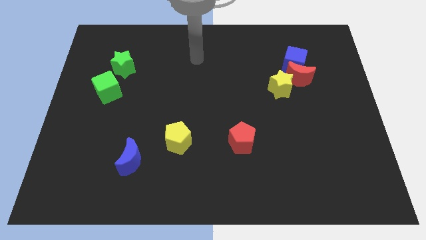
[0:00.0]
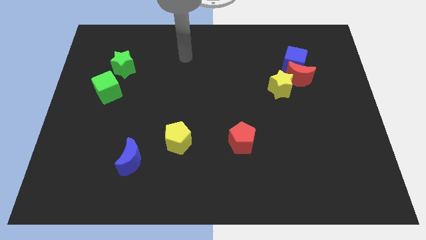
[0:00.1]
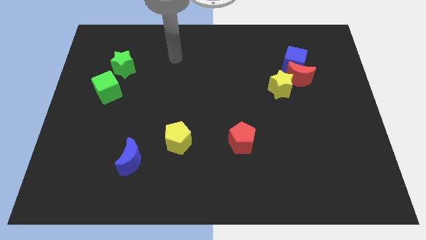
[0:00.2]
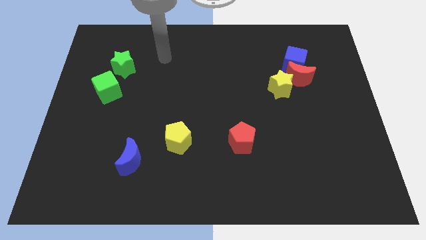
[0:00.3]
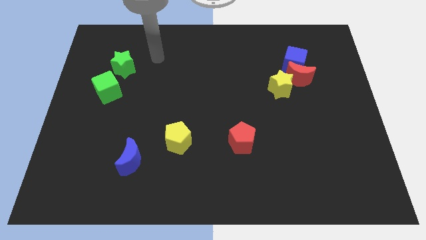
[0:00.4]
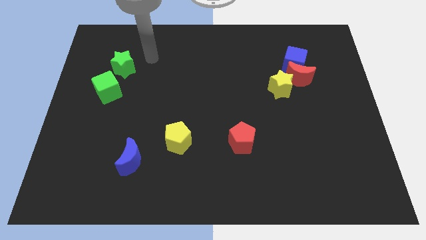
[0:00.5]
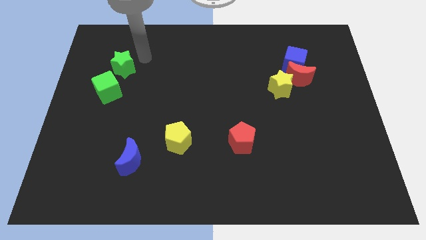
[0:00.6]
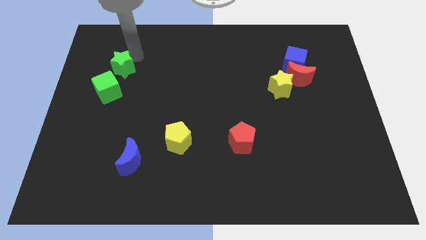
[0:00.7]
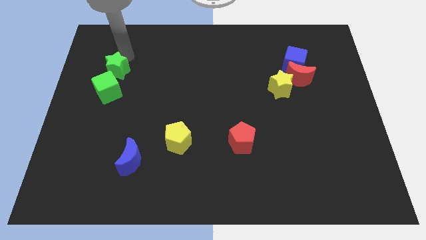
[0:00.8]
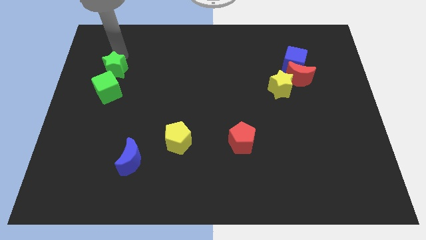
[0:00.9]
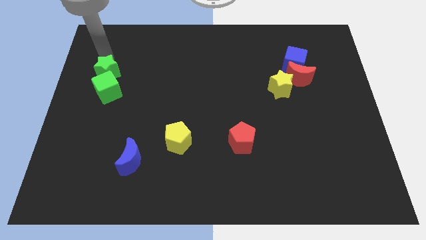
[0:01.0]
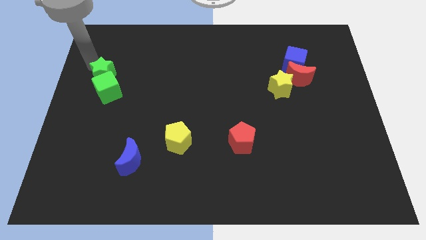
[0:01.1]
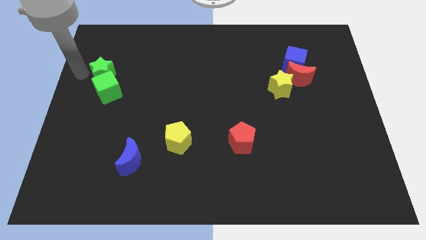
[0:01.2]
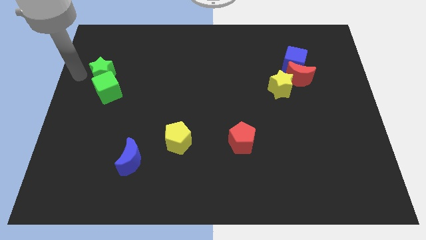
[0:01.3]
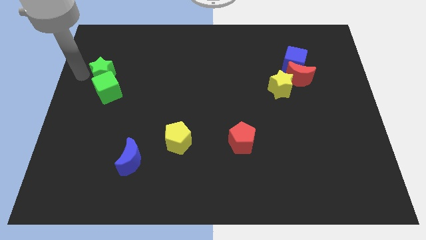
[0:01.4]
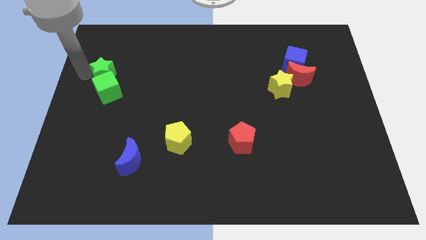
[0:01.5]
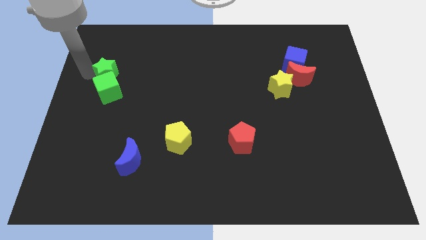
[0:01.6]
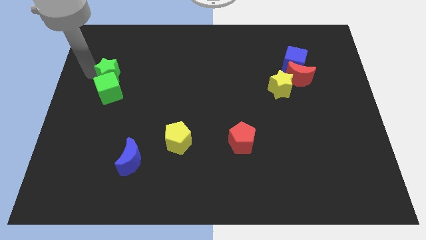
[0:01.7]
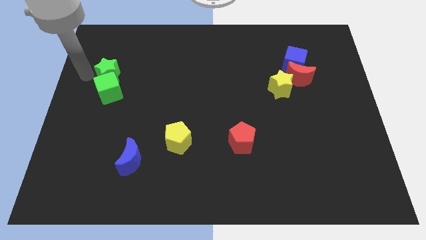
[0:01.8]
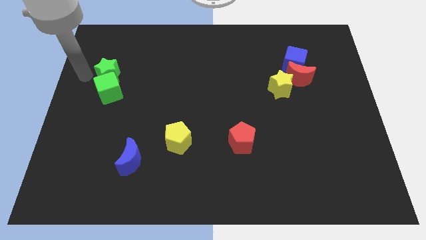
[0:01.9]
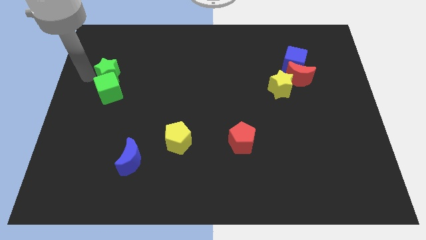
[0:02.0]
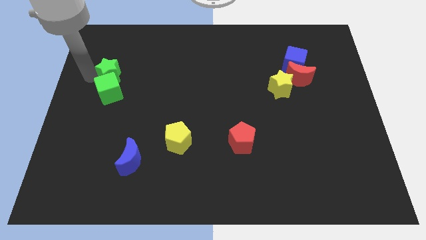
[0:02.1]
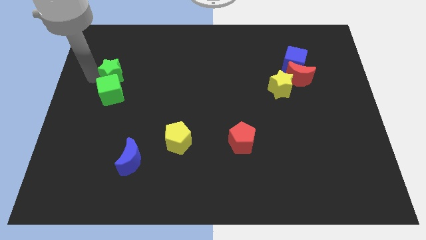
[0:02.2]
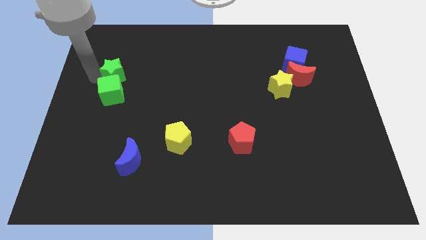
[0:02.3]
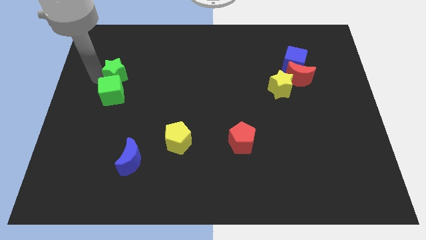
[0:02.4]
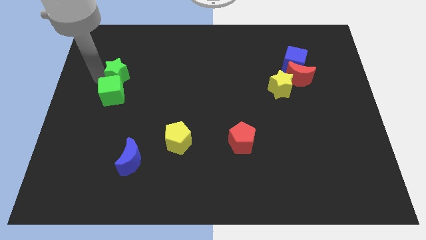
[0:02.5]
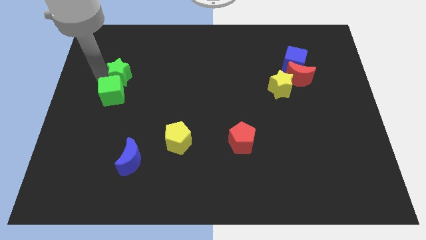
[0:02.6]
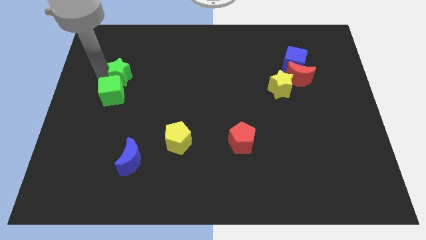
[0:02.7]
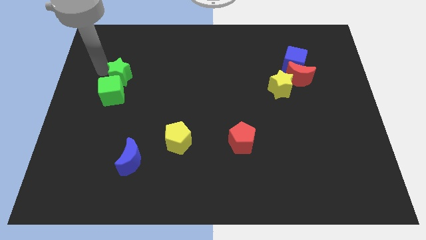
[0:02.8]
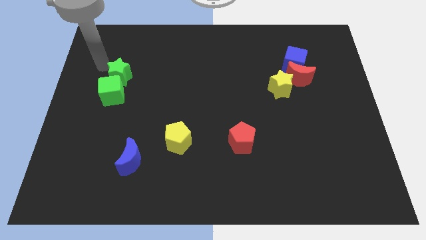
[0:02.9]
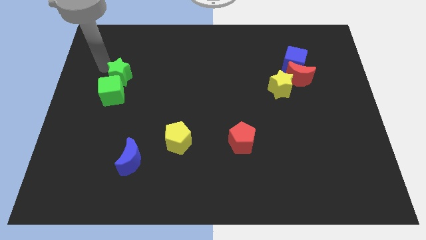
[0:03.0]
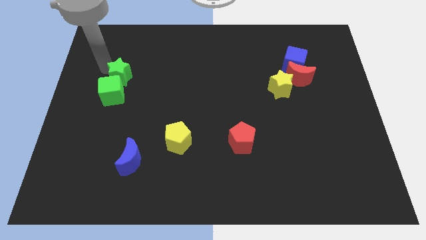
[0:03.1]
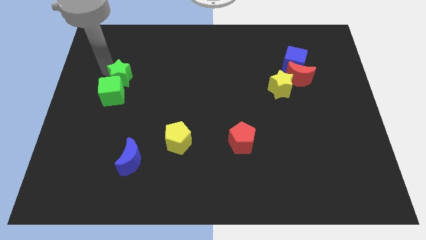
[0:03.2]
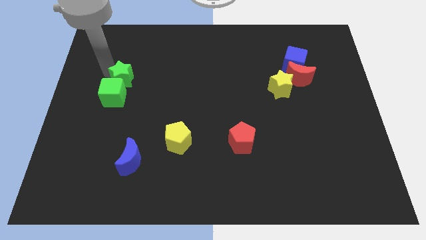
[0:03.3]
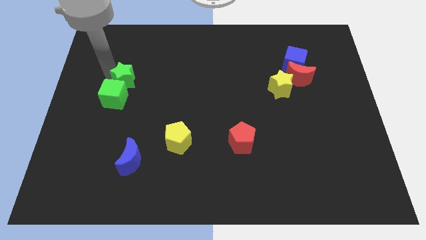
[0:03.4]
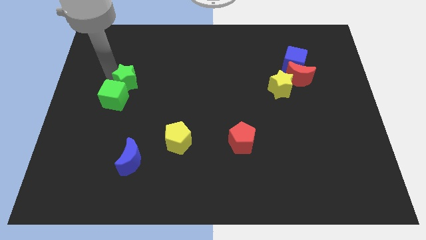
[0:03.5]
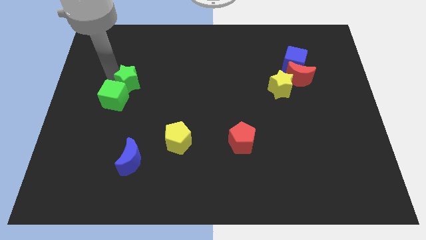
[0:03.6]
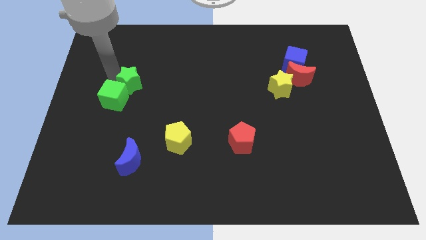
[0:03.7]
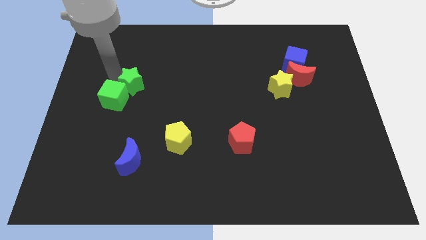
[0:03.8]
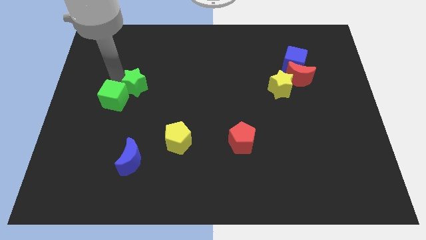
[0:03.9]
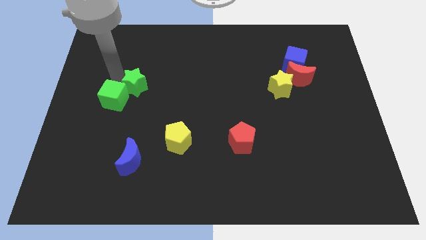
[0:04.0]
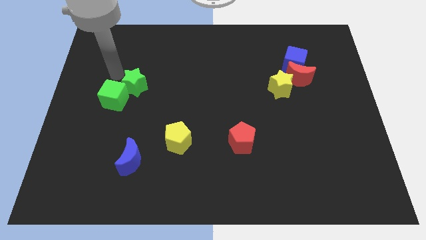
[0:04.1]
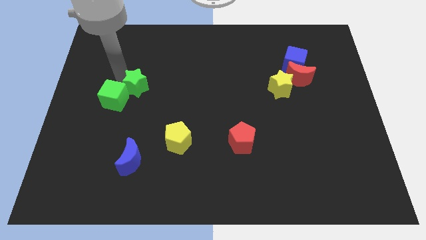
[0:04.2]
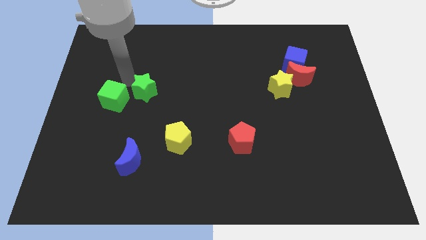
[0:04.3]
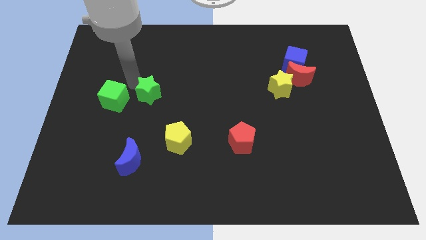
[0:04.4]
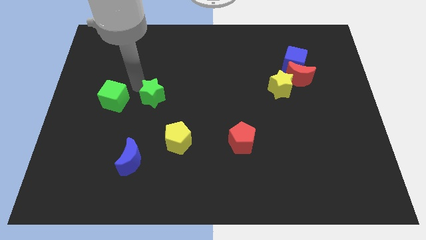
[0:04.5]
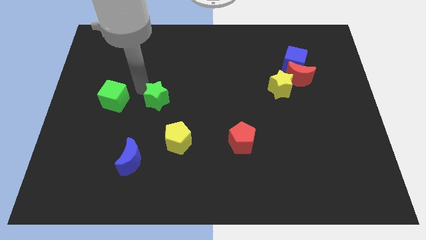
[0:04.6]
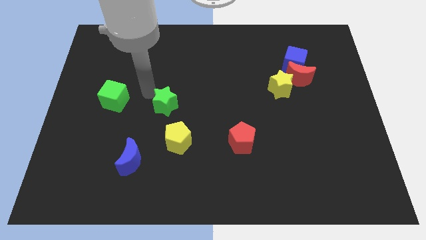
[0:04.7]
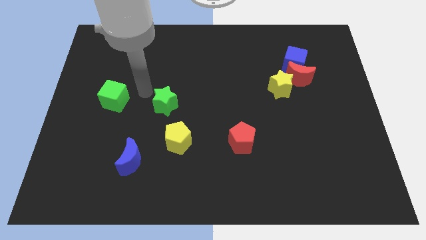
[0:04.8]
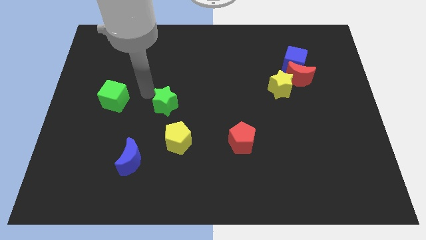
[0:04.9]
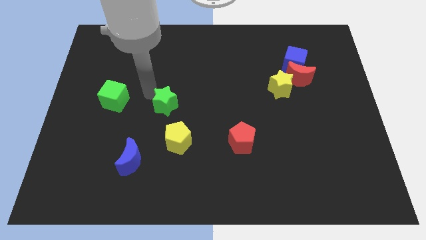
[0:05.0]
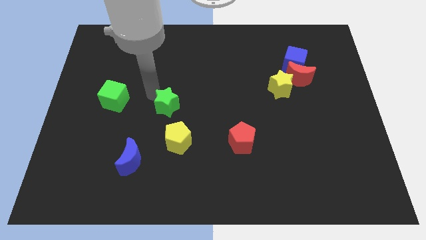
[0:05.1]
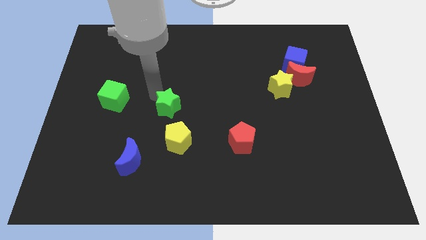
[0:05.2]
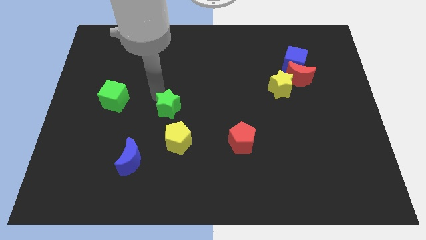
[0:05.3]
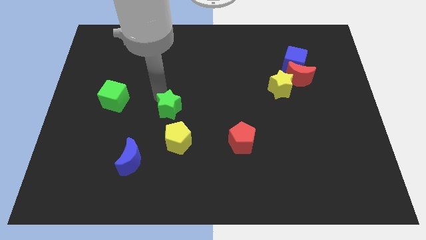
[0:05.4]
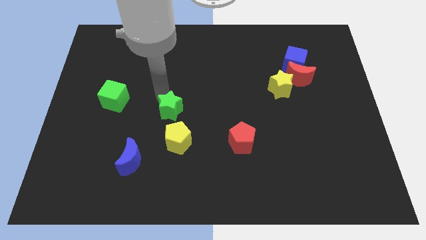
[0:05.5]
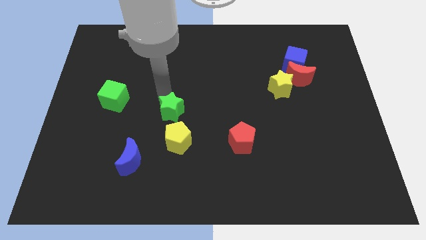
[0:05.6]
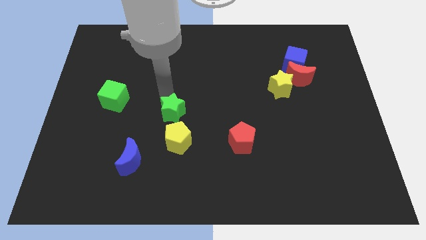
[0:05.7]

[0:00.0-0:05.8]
push the green star diagonally down and right

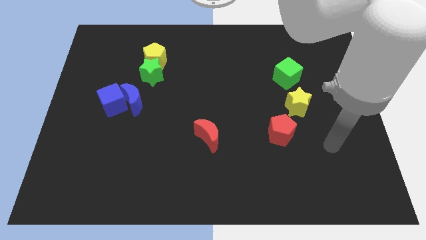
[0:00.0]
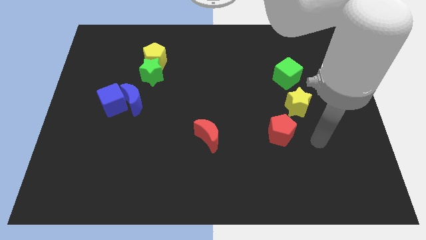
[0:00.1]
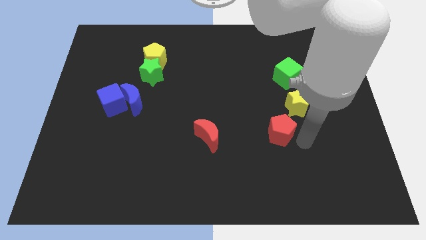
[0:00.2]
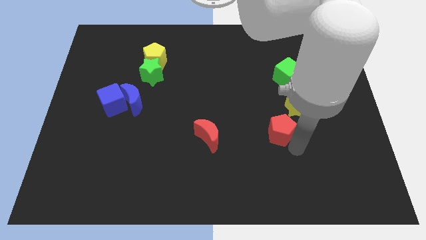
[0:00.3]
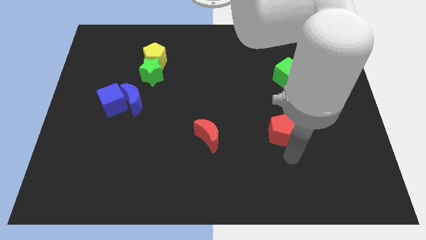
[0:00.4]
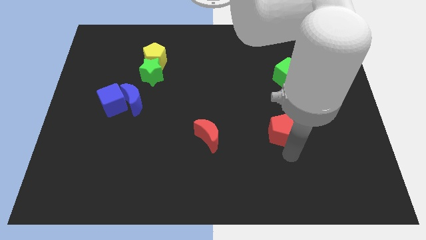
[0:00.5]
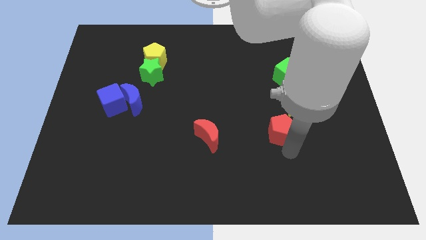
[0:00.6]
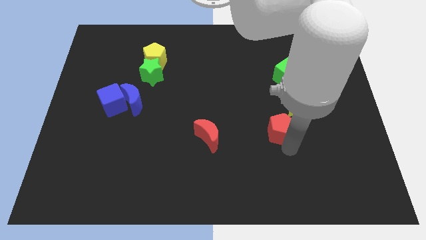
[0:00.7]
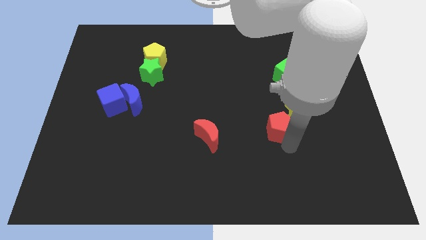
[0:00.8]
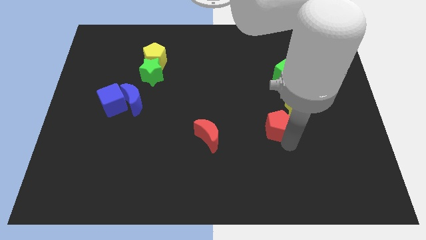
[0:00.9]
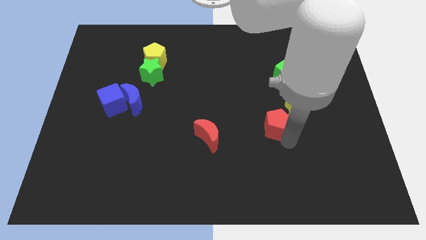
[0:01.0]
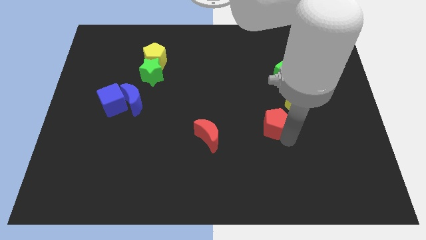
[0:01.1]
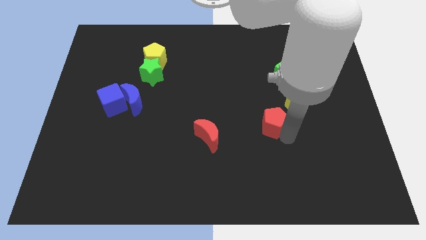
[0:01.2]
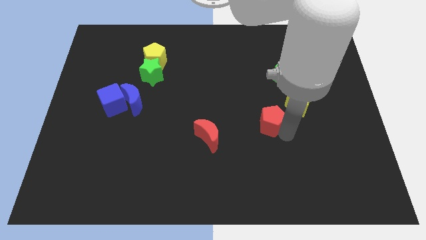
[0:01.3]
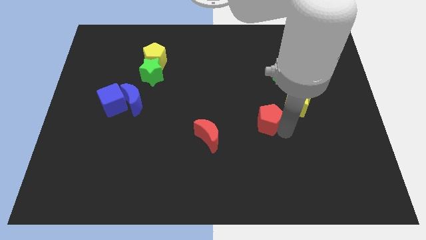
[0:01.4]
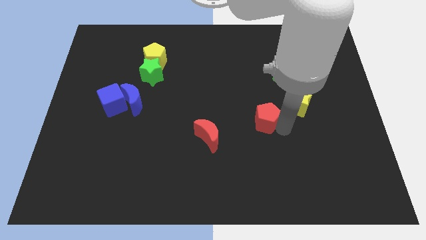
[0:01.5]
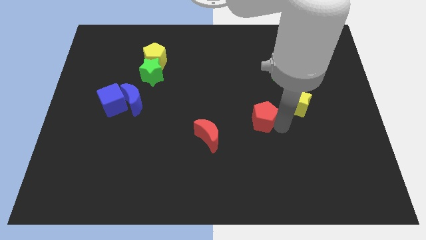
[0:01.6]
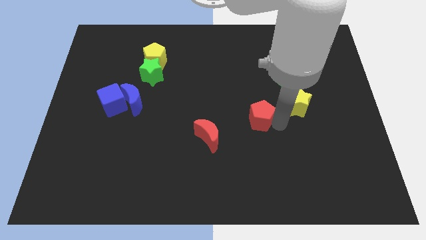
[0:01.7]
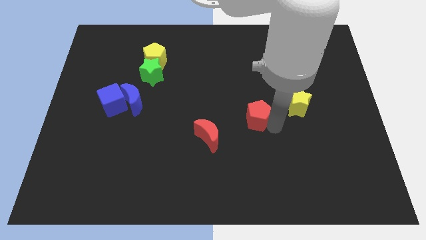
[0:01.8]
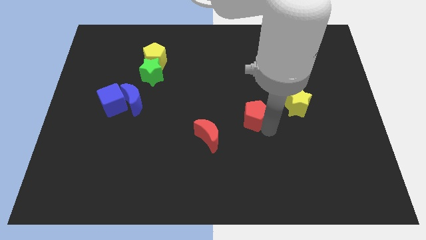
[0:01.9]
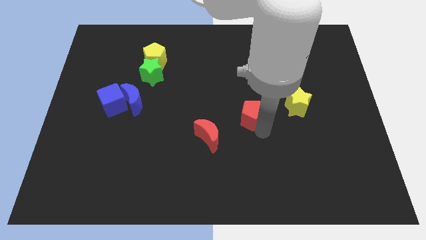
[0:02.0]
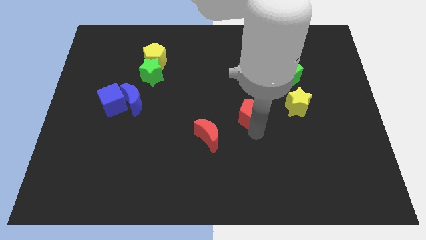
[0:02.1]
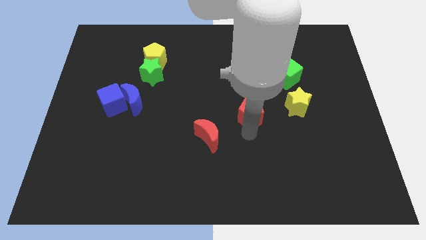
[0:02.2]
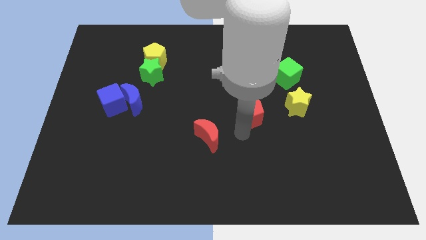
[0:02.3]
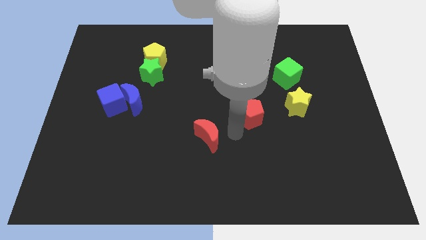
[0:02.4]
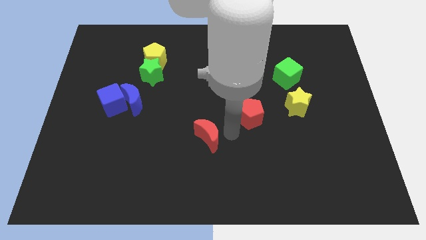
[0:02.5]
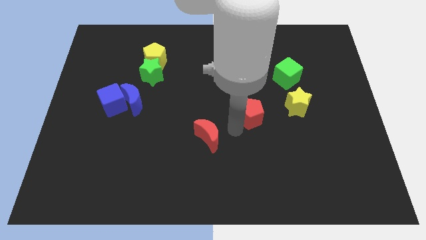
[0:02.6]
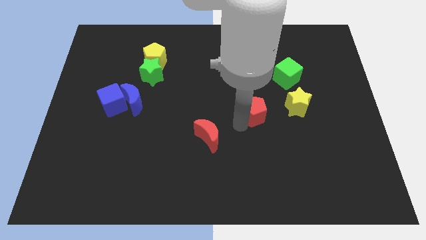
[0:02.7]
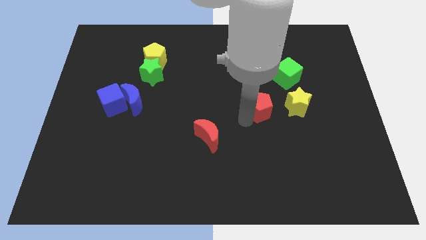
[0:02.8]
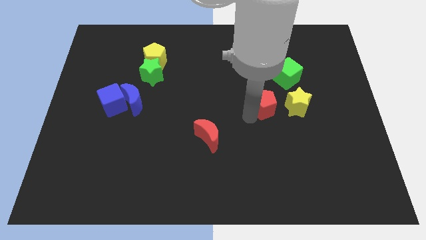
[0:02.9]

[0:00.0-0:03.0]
move the red pentagon upwards a little
